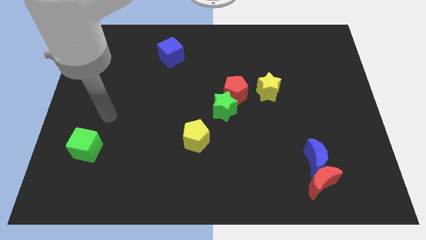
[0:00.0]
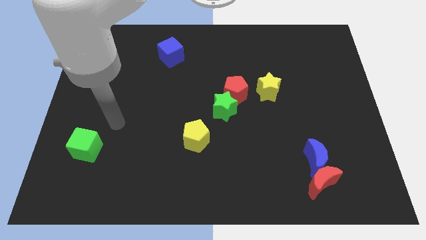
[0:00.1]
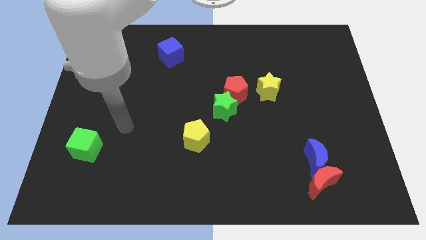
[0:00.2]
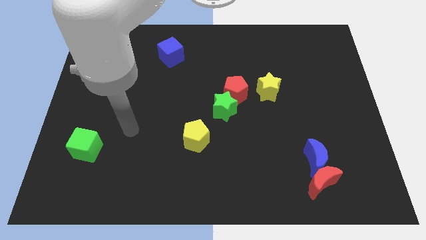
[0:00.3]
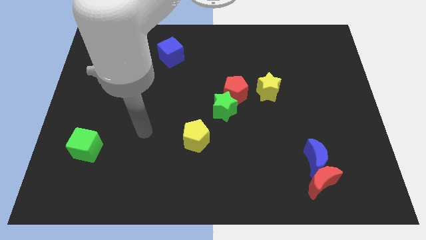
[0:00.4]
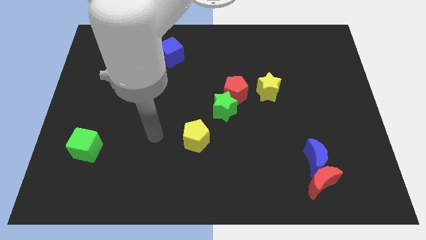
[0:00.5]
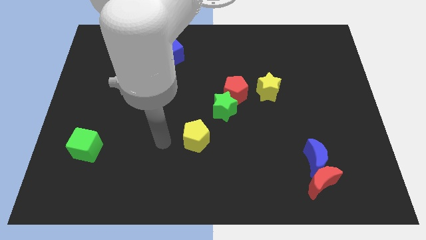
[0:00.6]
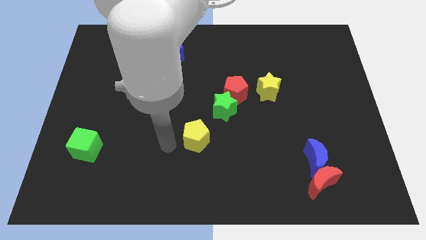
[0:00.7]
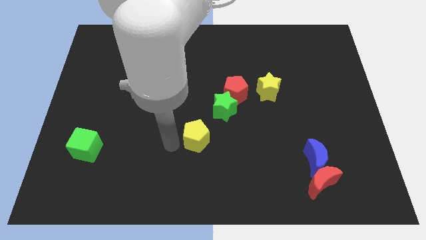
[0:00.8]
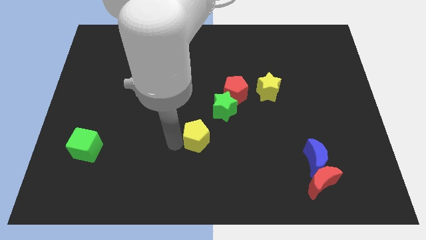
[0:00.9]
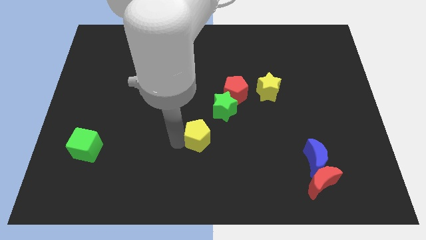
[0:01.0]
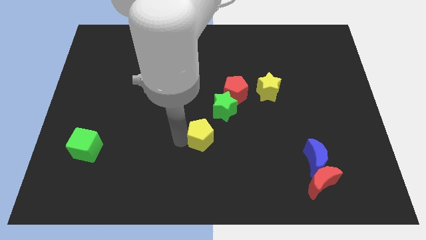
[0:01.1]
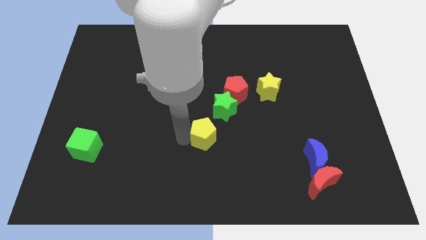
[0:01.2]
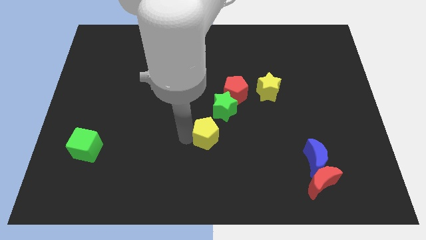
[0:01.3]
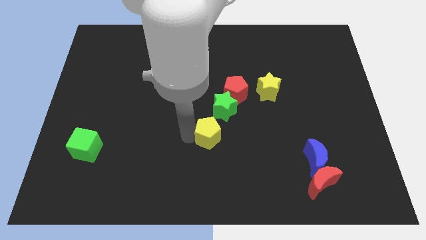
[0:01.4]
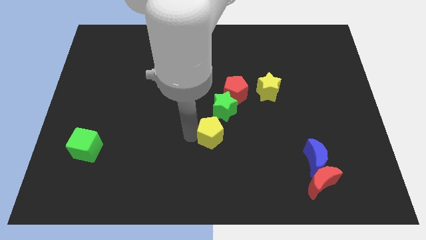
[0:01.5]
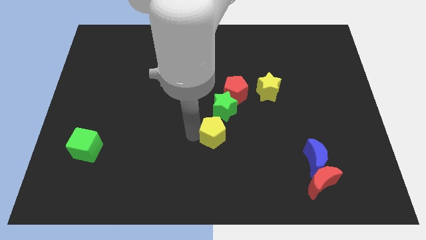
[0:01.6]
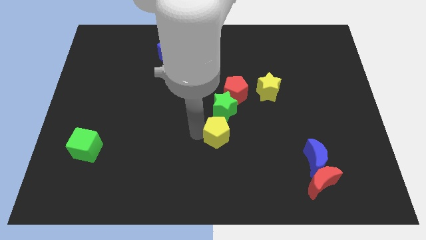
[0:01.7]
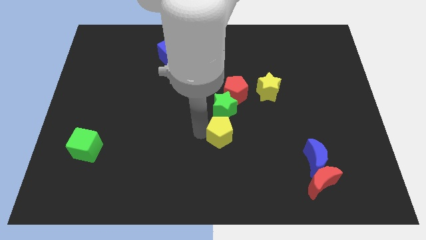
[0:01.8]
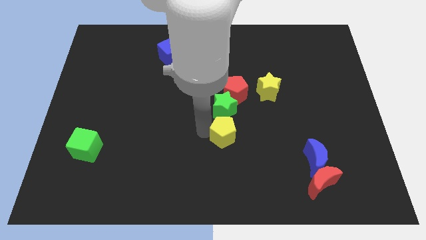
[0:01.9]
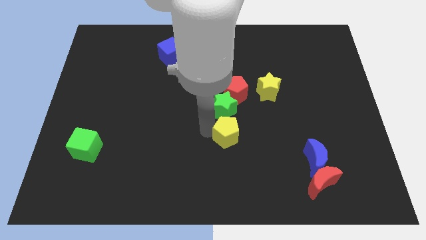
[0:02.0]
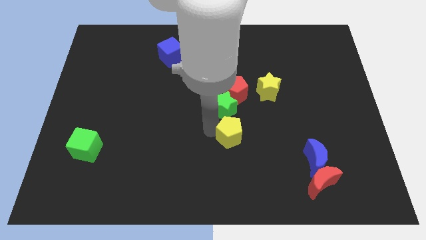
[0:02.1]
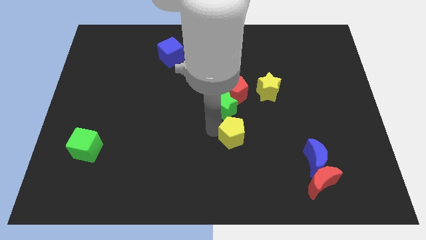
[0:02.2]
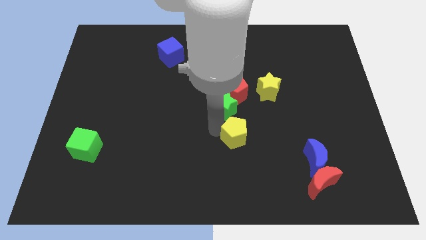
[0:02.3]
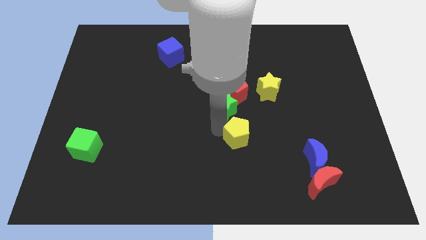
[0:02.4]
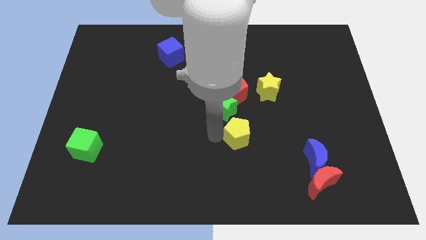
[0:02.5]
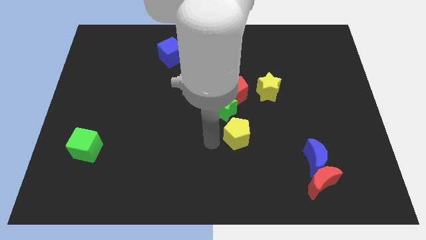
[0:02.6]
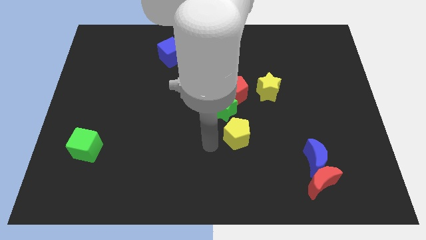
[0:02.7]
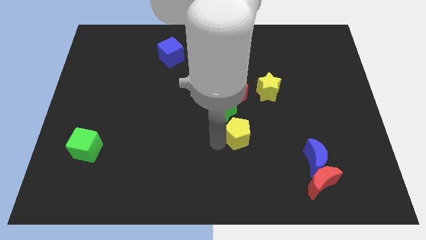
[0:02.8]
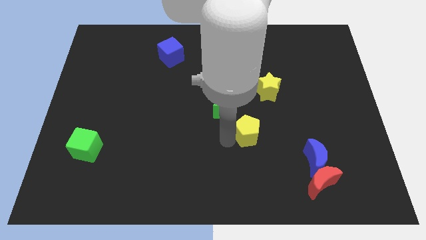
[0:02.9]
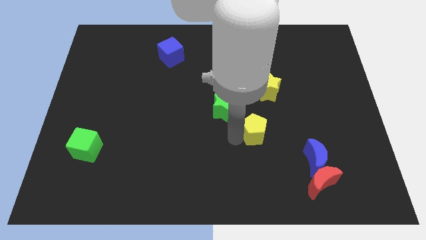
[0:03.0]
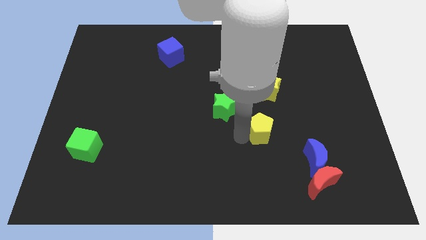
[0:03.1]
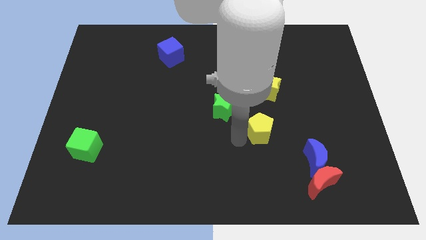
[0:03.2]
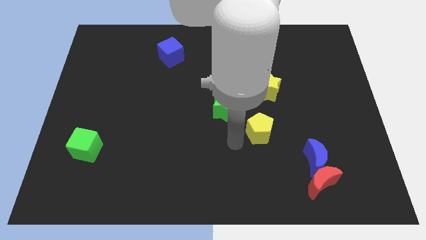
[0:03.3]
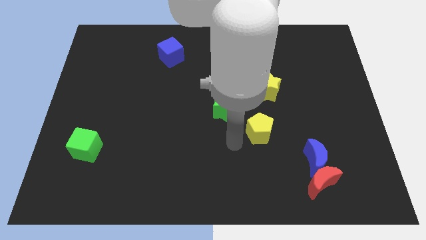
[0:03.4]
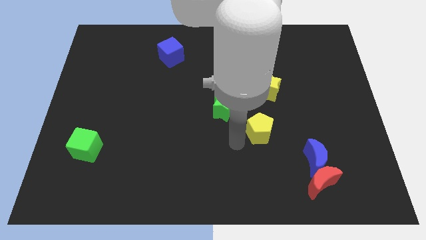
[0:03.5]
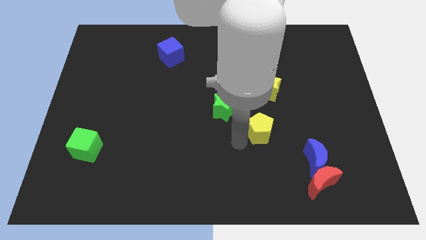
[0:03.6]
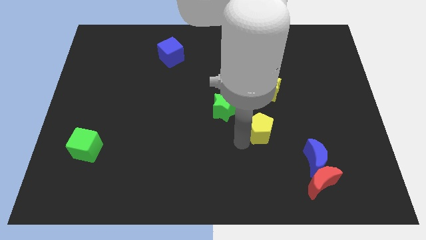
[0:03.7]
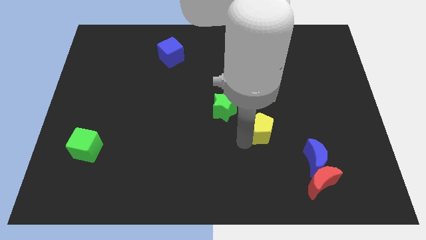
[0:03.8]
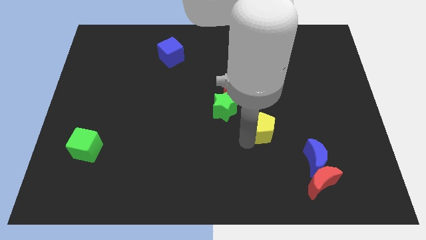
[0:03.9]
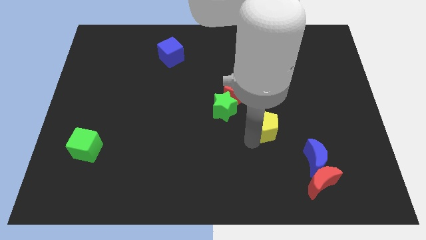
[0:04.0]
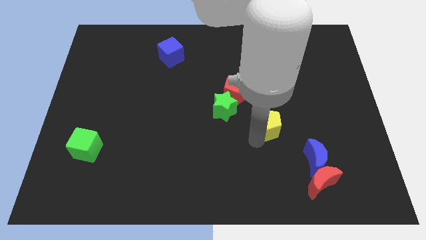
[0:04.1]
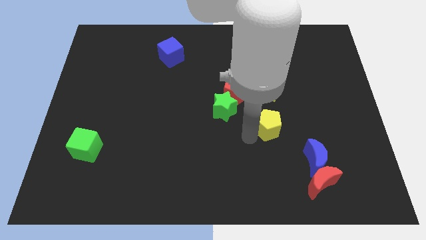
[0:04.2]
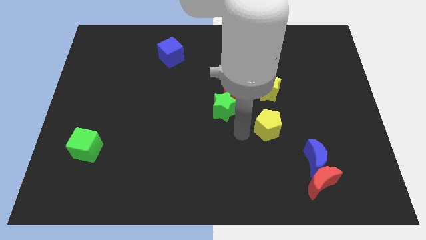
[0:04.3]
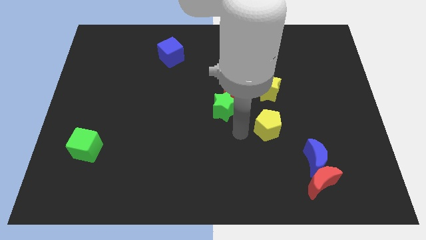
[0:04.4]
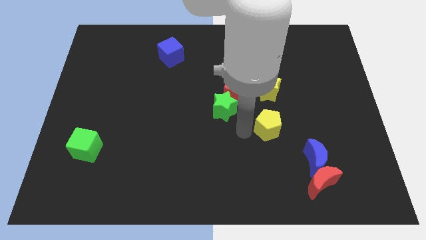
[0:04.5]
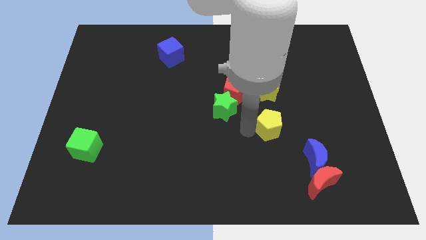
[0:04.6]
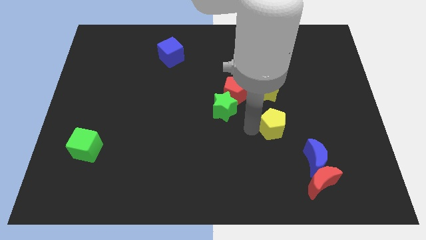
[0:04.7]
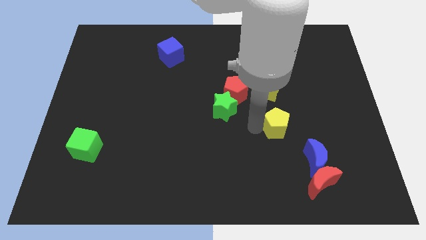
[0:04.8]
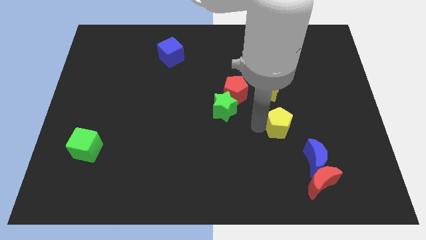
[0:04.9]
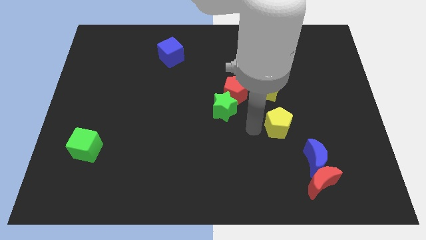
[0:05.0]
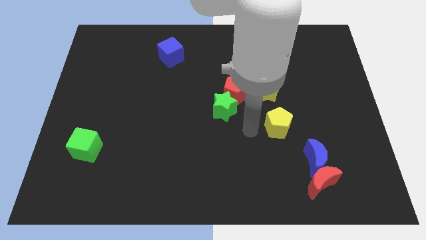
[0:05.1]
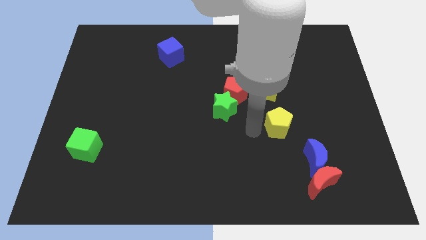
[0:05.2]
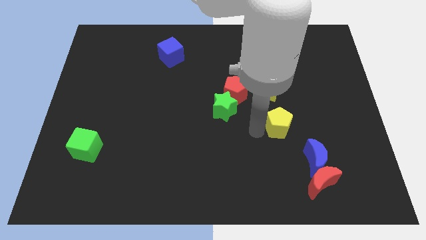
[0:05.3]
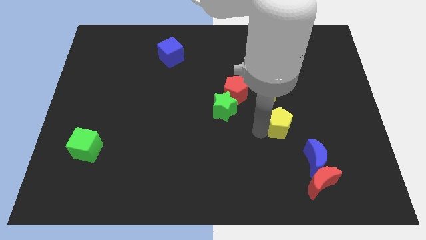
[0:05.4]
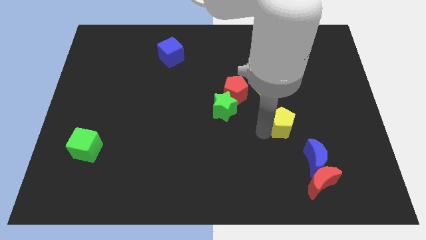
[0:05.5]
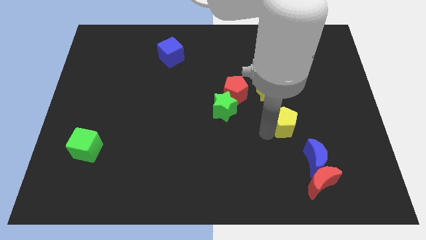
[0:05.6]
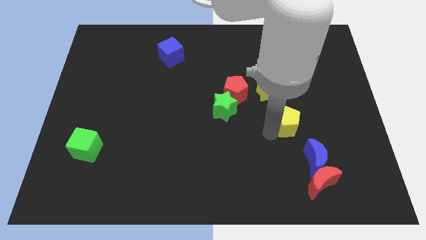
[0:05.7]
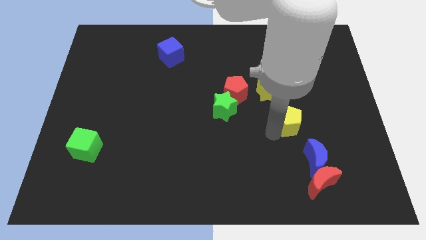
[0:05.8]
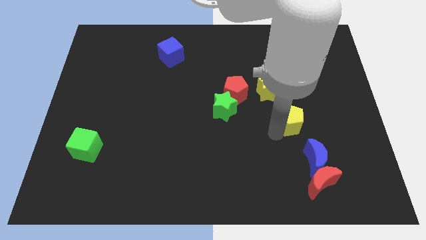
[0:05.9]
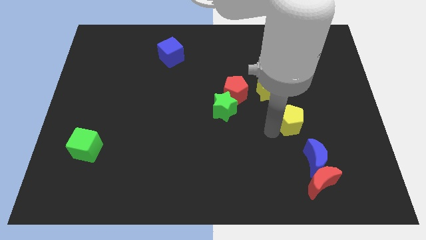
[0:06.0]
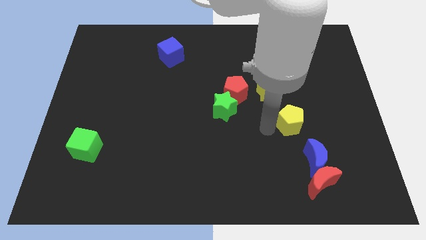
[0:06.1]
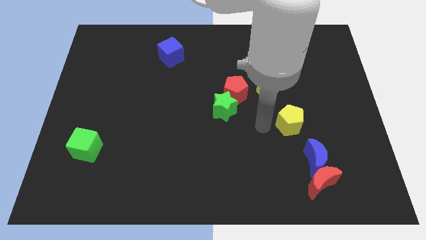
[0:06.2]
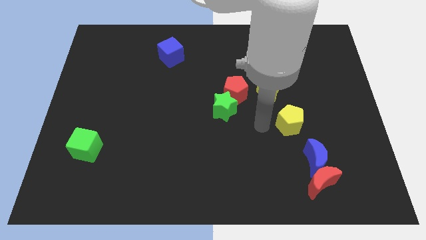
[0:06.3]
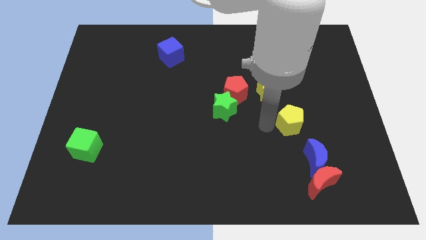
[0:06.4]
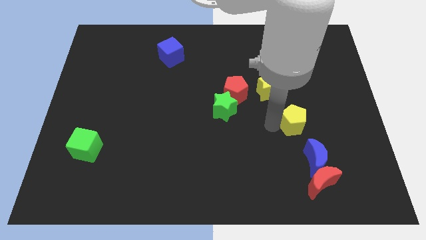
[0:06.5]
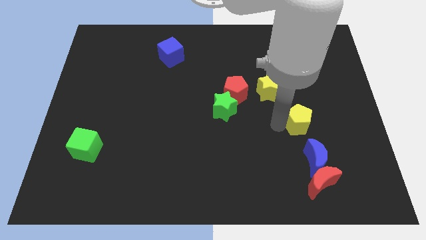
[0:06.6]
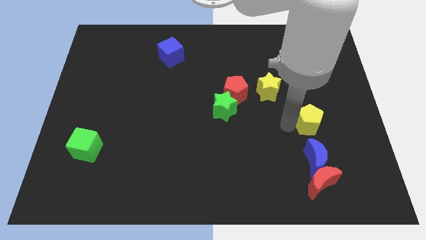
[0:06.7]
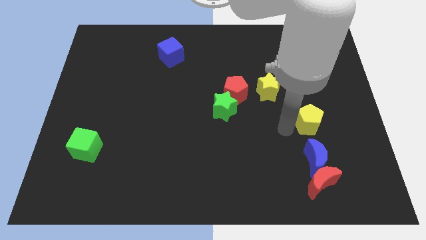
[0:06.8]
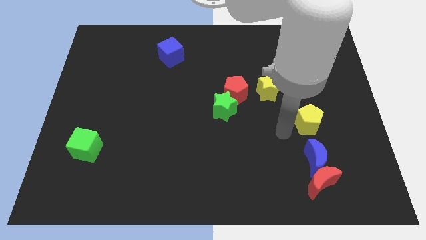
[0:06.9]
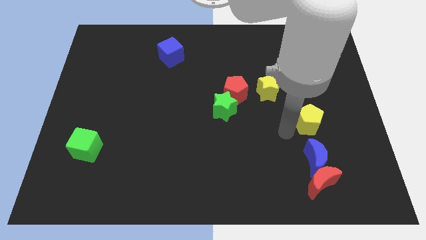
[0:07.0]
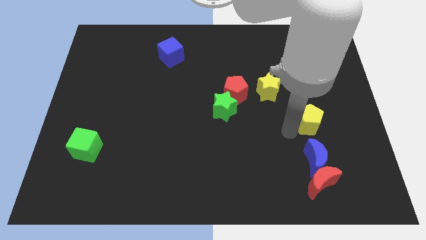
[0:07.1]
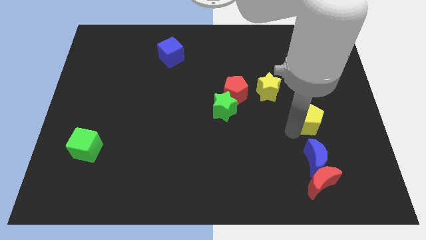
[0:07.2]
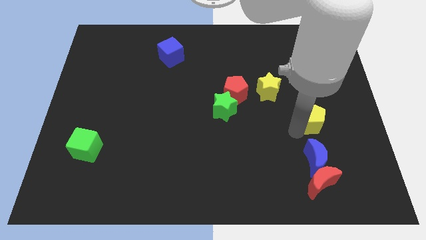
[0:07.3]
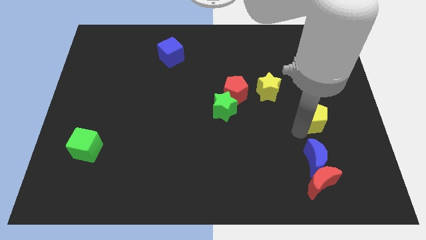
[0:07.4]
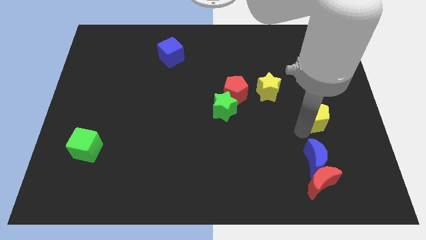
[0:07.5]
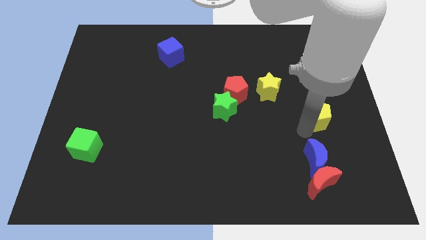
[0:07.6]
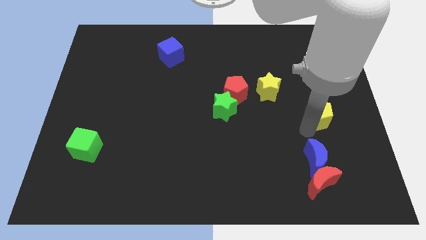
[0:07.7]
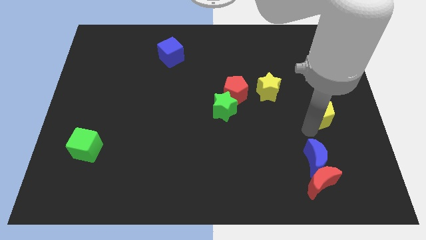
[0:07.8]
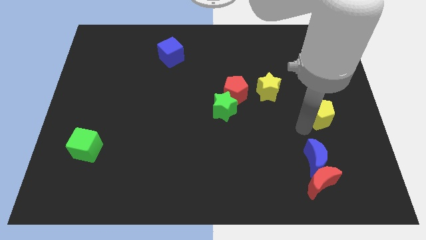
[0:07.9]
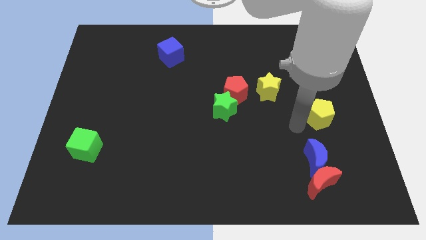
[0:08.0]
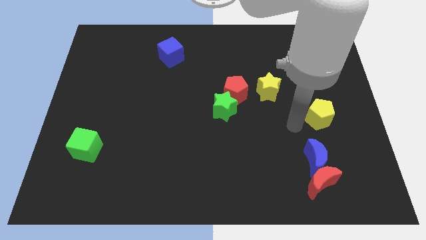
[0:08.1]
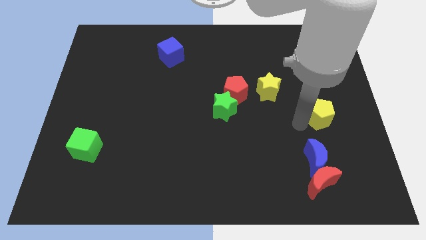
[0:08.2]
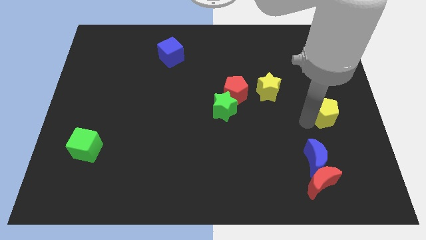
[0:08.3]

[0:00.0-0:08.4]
put the yellow pentagon to the right side
